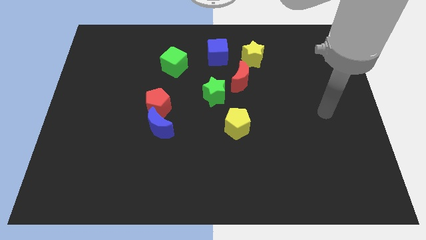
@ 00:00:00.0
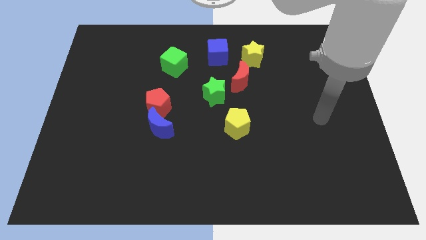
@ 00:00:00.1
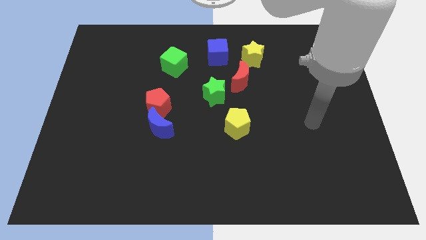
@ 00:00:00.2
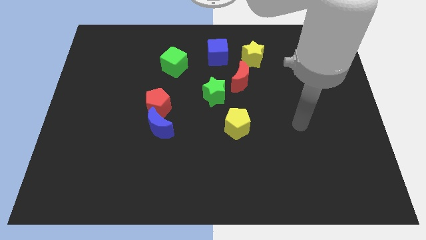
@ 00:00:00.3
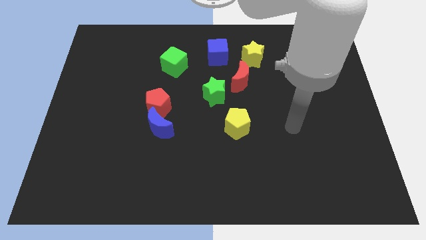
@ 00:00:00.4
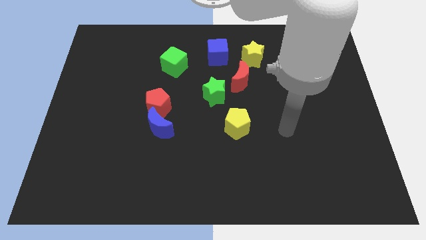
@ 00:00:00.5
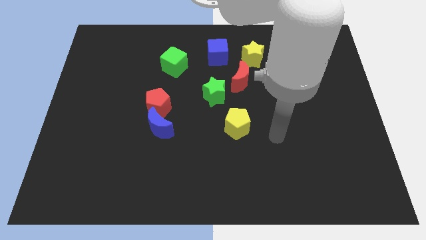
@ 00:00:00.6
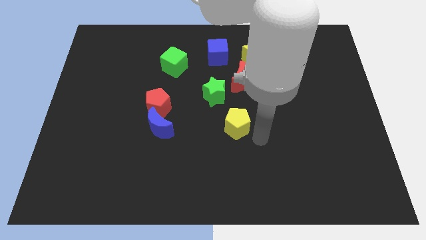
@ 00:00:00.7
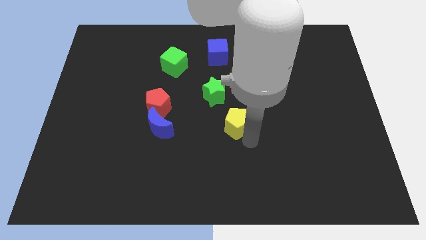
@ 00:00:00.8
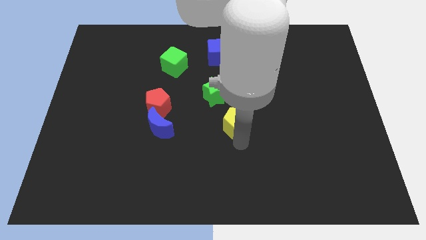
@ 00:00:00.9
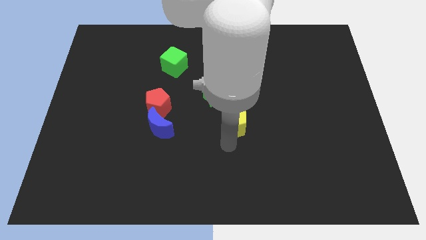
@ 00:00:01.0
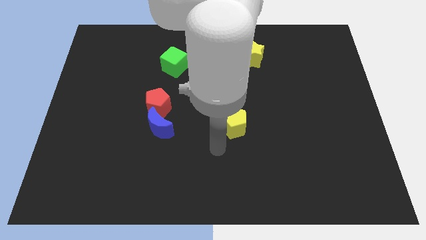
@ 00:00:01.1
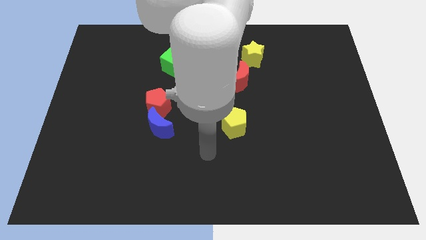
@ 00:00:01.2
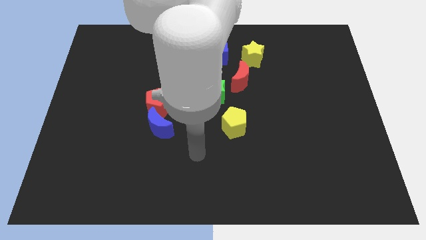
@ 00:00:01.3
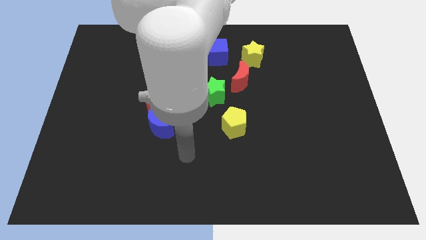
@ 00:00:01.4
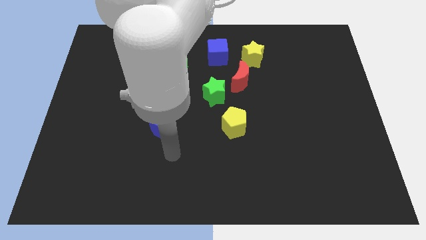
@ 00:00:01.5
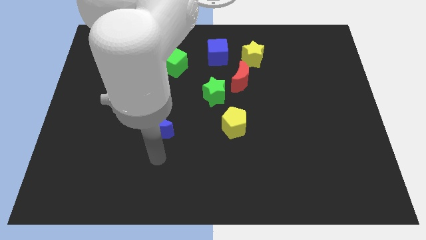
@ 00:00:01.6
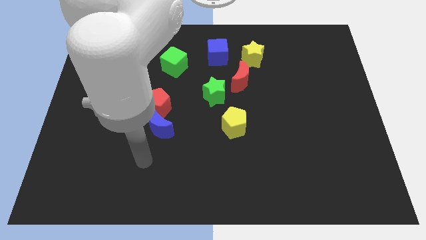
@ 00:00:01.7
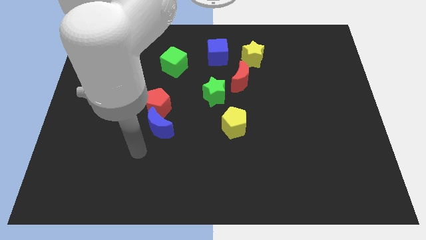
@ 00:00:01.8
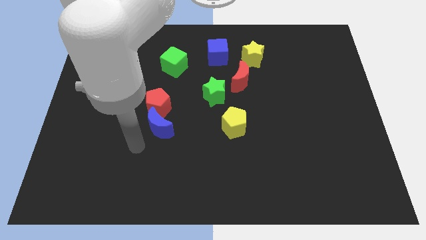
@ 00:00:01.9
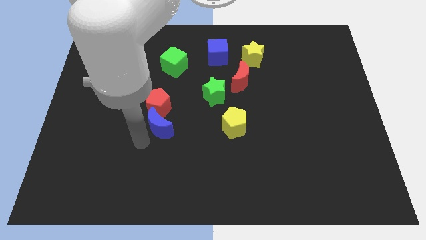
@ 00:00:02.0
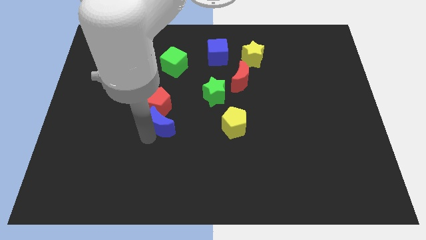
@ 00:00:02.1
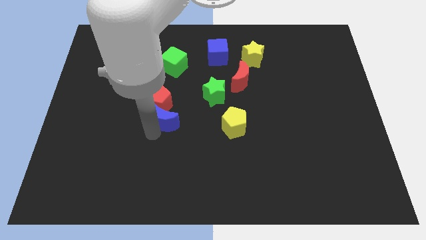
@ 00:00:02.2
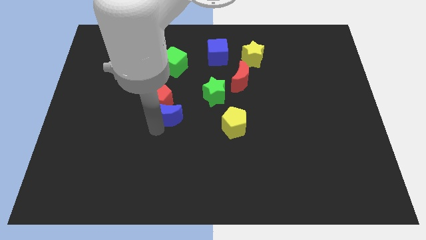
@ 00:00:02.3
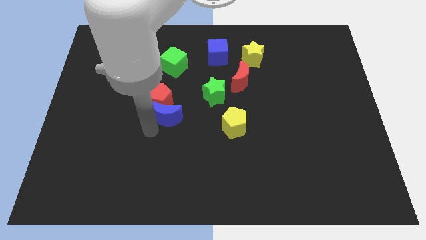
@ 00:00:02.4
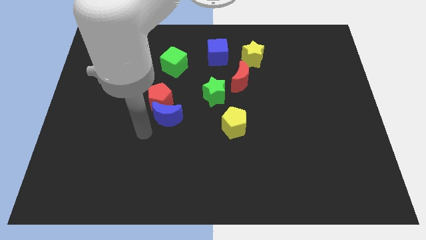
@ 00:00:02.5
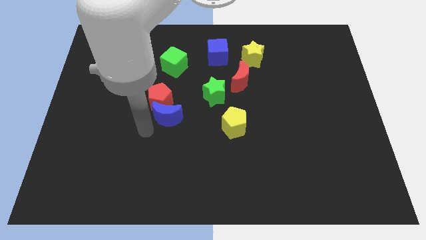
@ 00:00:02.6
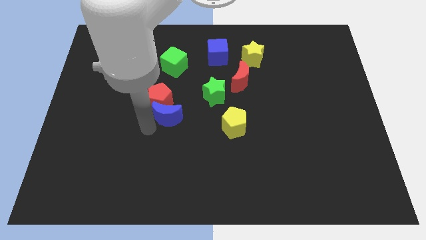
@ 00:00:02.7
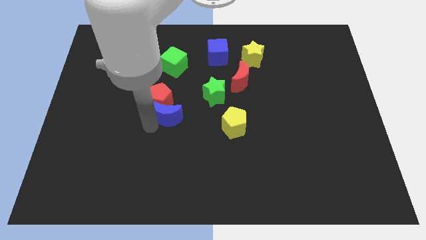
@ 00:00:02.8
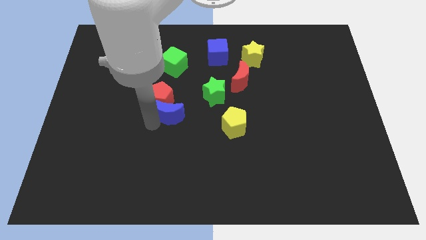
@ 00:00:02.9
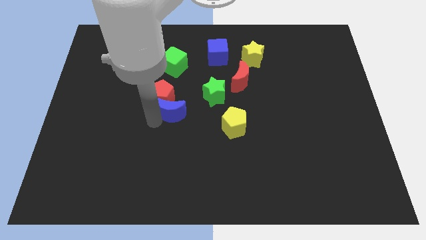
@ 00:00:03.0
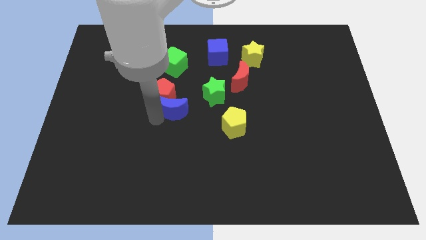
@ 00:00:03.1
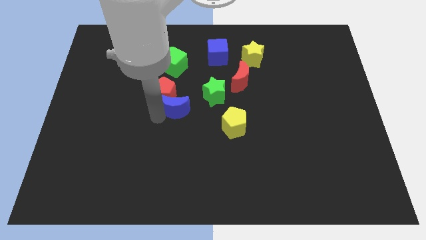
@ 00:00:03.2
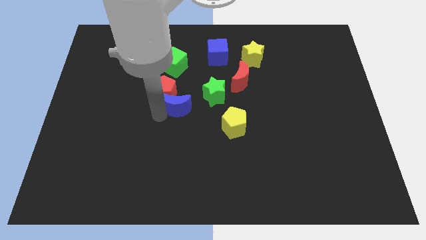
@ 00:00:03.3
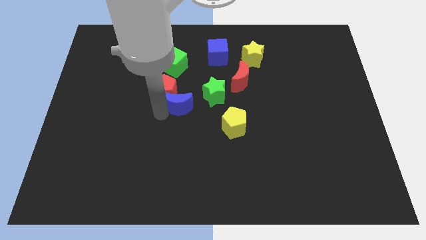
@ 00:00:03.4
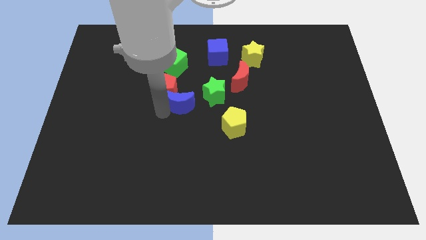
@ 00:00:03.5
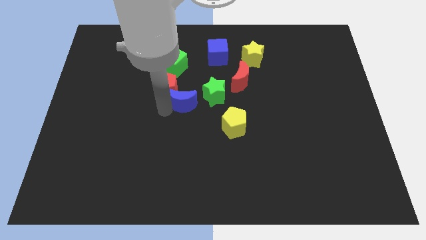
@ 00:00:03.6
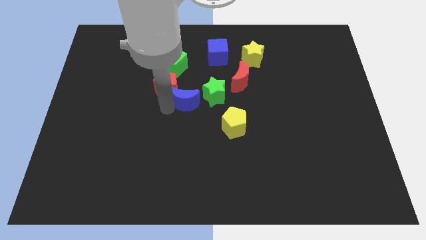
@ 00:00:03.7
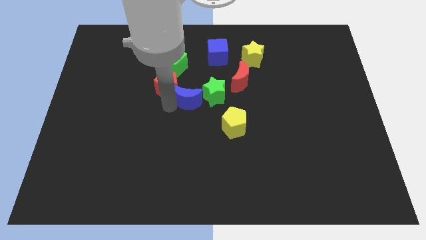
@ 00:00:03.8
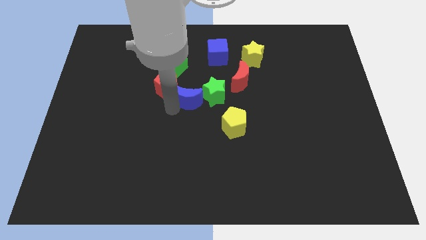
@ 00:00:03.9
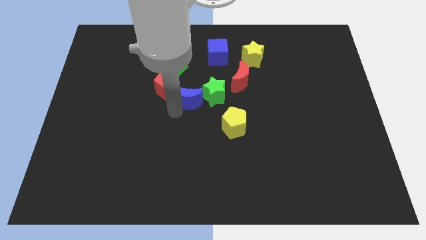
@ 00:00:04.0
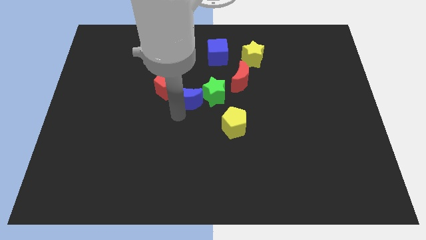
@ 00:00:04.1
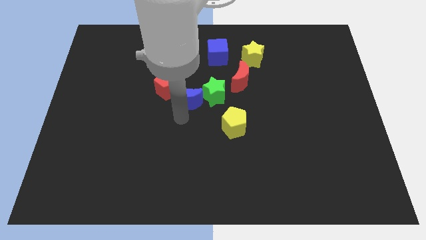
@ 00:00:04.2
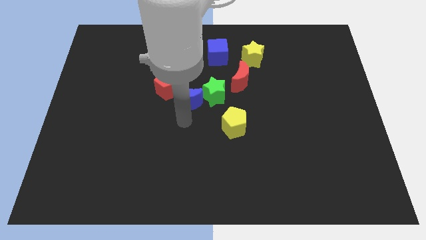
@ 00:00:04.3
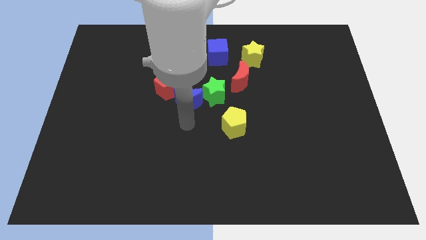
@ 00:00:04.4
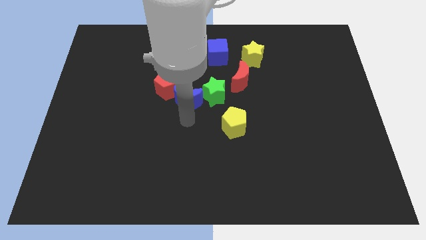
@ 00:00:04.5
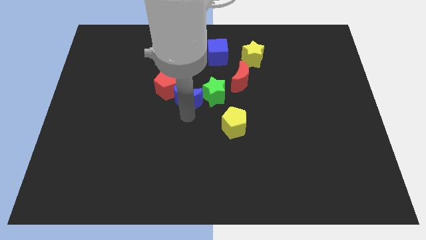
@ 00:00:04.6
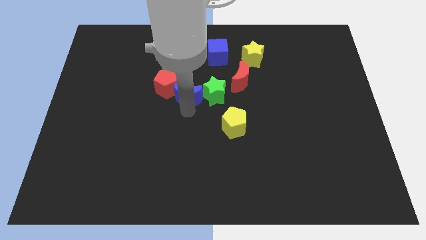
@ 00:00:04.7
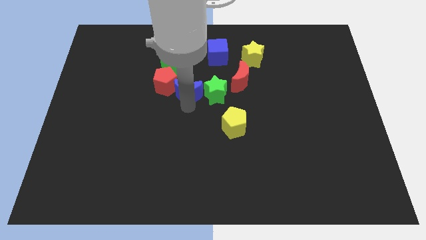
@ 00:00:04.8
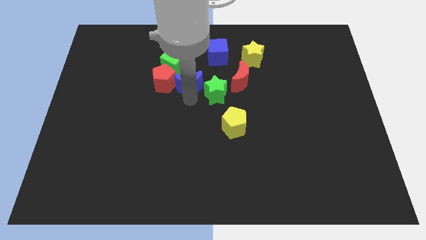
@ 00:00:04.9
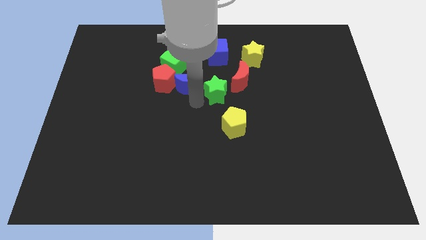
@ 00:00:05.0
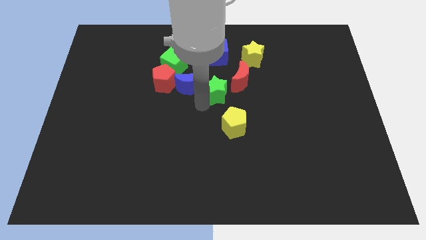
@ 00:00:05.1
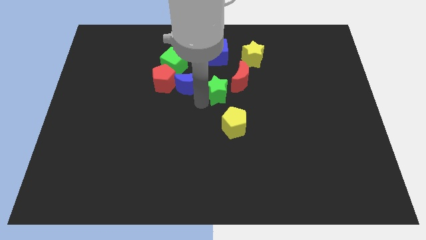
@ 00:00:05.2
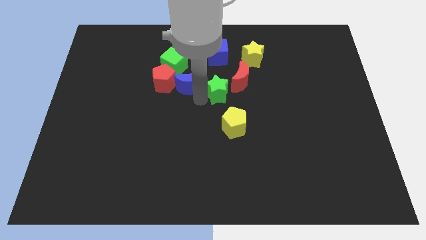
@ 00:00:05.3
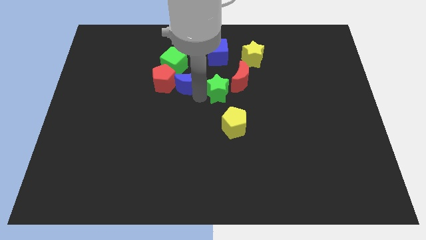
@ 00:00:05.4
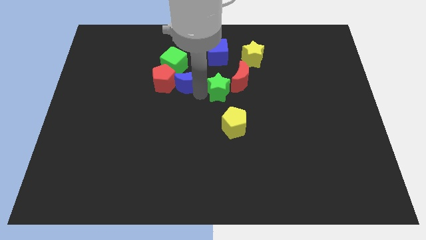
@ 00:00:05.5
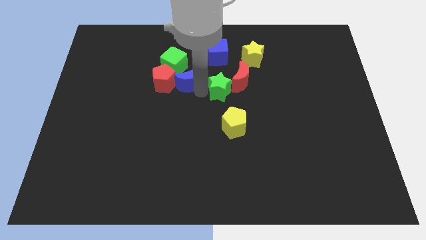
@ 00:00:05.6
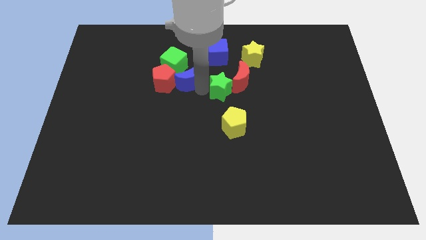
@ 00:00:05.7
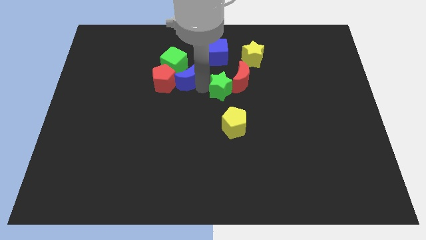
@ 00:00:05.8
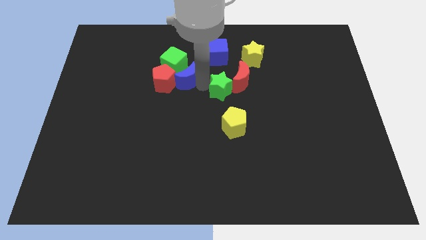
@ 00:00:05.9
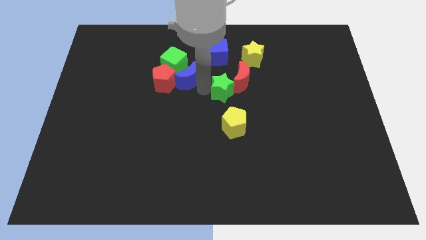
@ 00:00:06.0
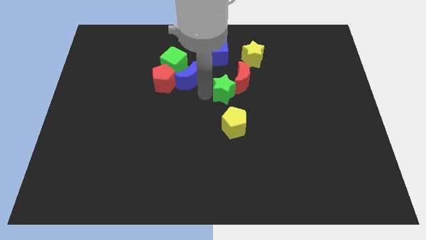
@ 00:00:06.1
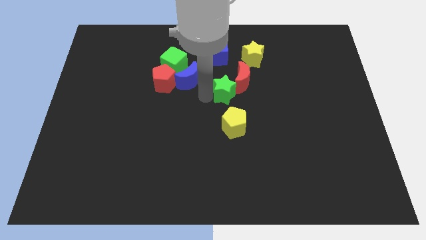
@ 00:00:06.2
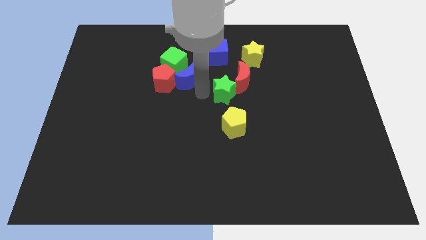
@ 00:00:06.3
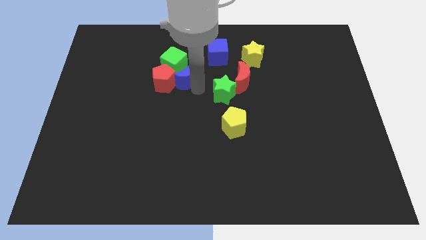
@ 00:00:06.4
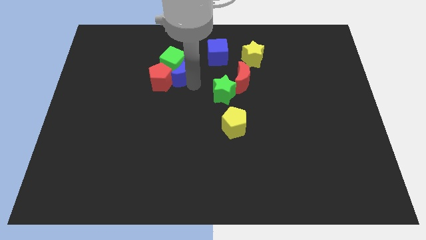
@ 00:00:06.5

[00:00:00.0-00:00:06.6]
push the blue moon close to the green cube

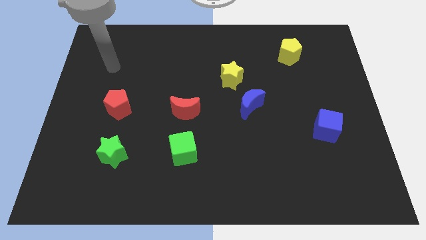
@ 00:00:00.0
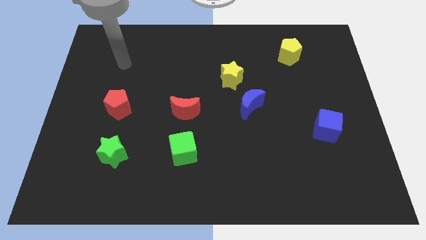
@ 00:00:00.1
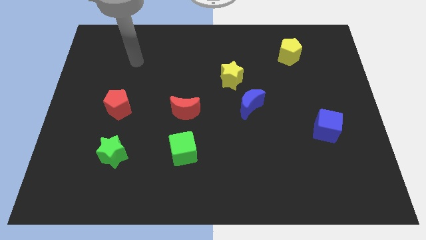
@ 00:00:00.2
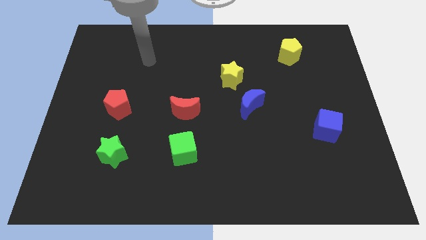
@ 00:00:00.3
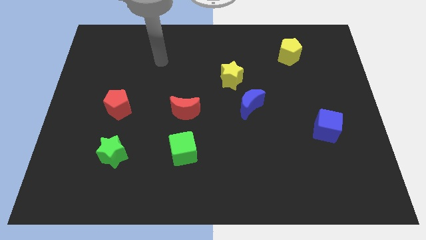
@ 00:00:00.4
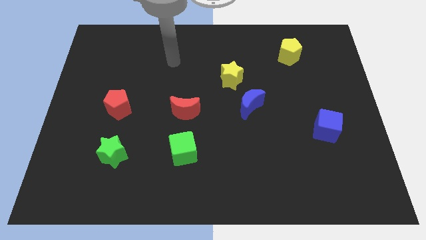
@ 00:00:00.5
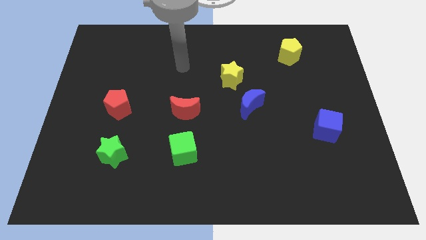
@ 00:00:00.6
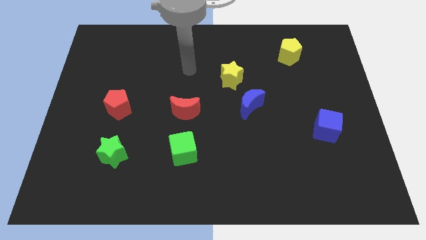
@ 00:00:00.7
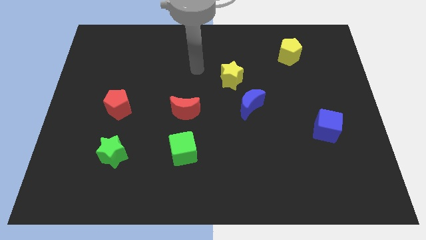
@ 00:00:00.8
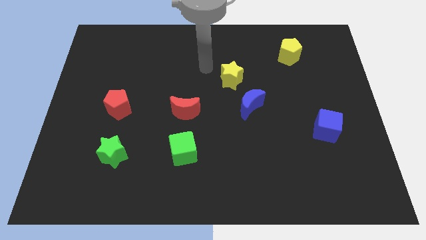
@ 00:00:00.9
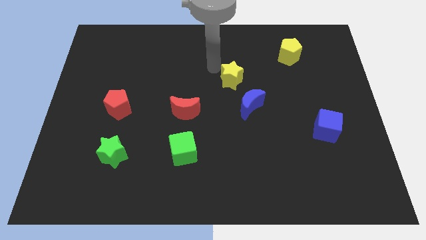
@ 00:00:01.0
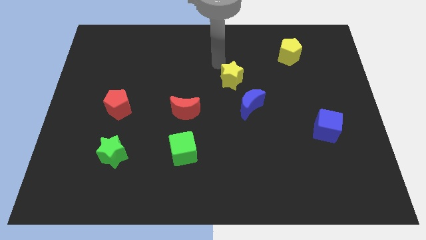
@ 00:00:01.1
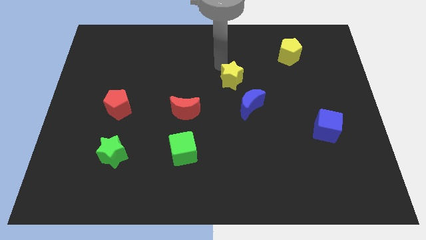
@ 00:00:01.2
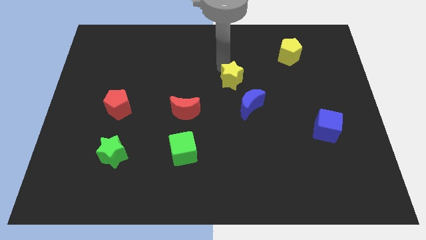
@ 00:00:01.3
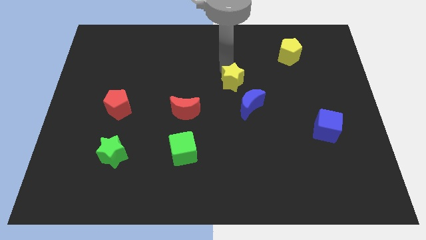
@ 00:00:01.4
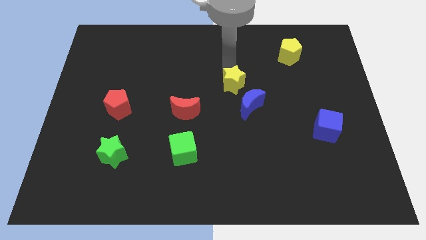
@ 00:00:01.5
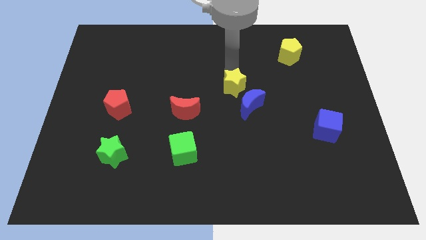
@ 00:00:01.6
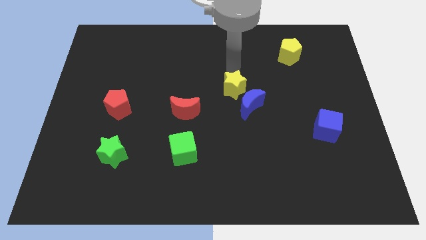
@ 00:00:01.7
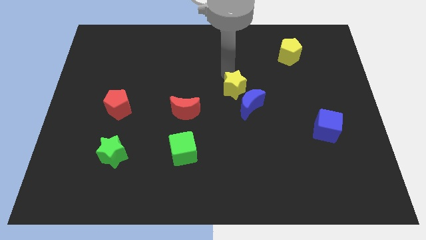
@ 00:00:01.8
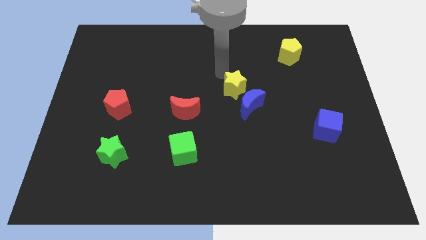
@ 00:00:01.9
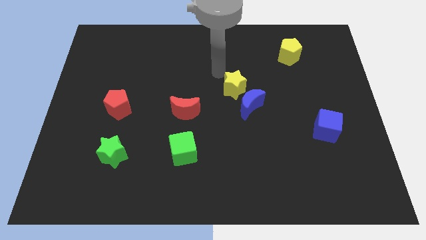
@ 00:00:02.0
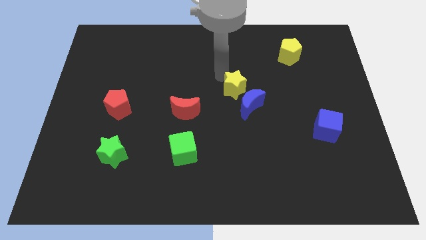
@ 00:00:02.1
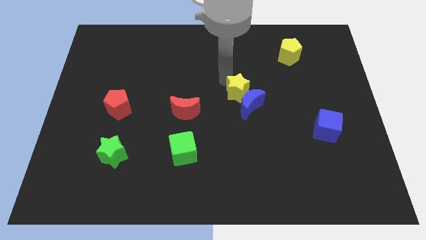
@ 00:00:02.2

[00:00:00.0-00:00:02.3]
put the yellow star towards the blue moon
